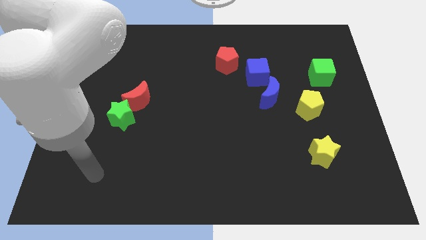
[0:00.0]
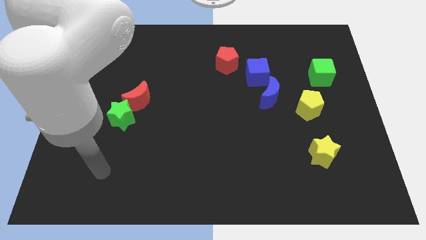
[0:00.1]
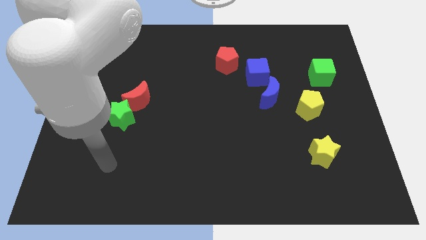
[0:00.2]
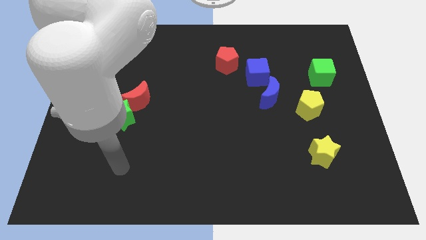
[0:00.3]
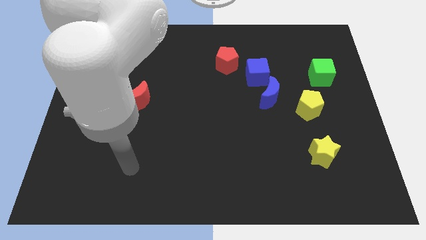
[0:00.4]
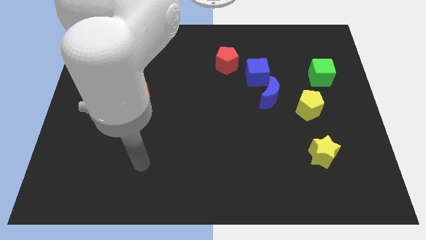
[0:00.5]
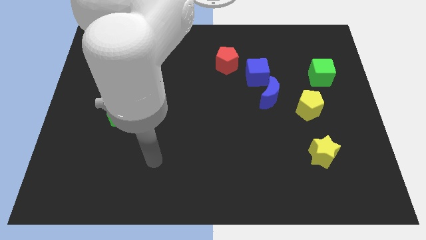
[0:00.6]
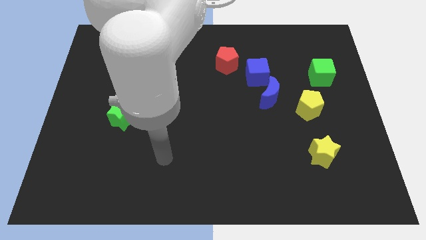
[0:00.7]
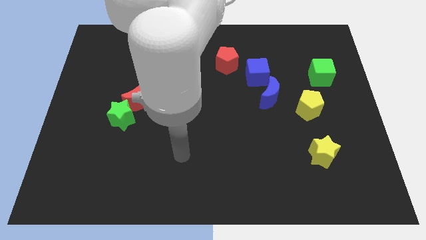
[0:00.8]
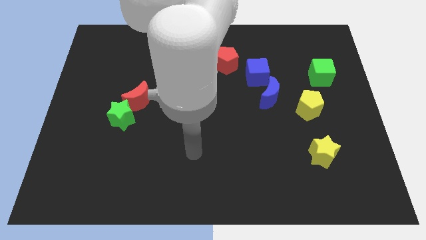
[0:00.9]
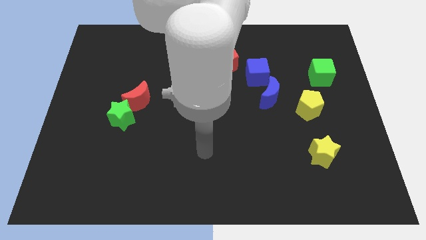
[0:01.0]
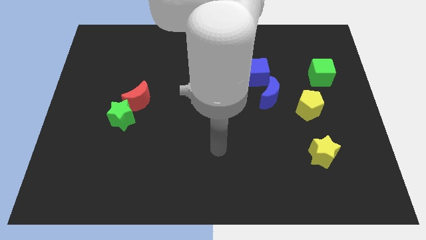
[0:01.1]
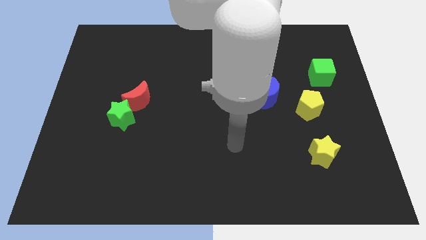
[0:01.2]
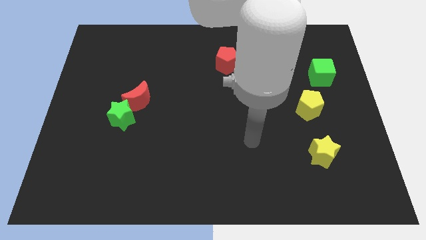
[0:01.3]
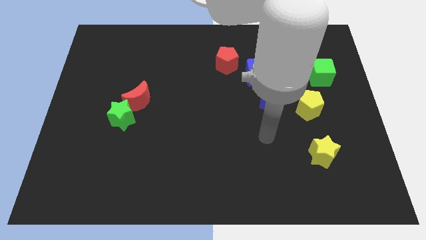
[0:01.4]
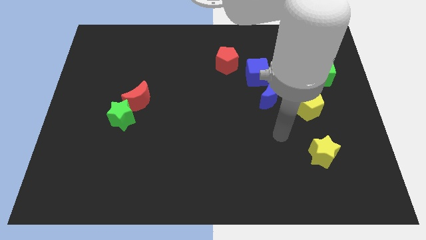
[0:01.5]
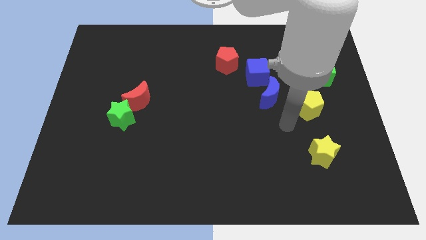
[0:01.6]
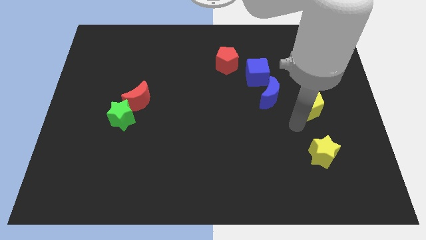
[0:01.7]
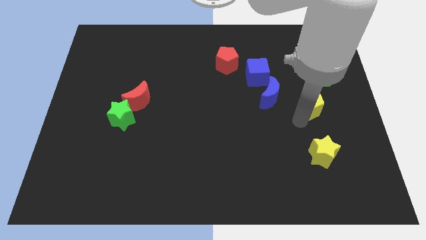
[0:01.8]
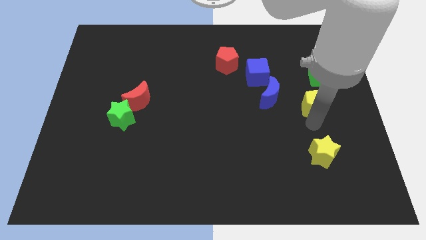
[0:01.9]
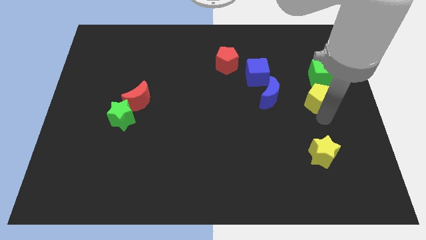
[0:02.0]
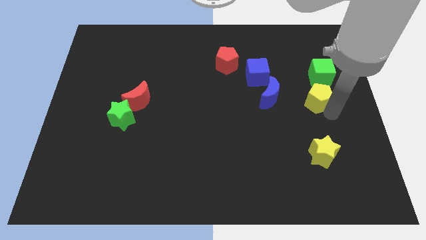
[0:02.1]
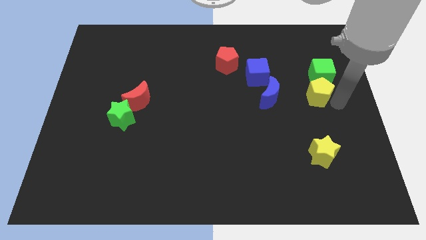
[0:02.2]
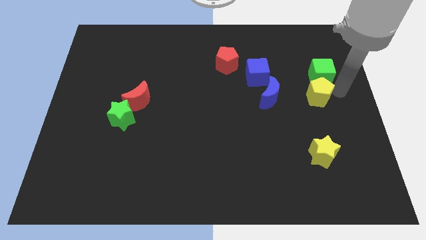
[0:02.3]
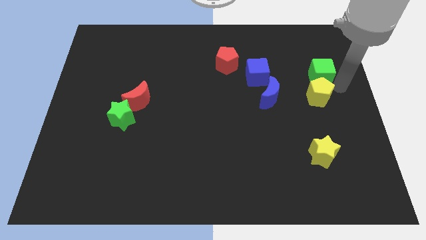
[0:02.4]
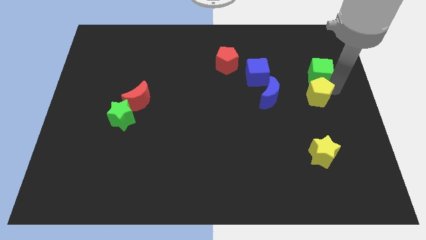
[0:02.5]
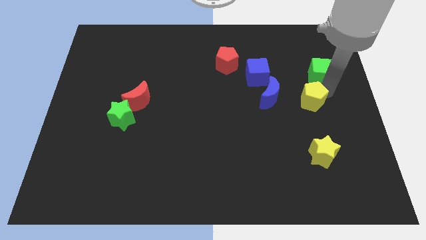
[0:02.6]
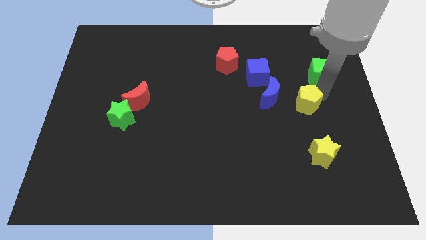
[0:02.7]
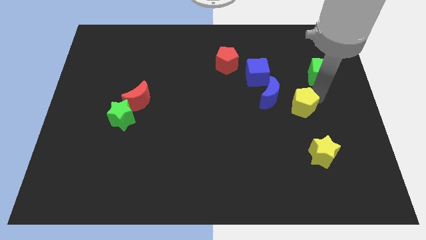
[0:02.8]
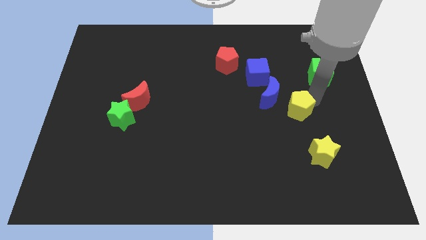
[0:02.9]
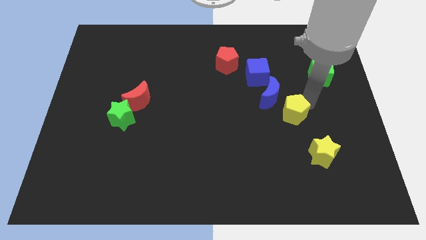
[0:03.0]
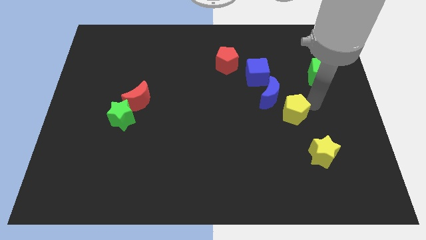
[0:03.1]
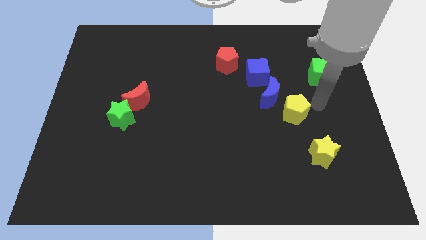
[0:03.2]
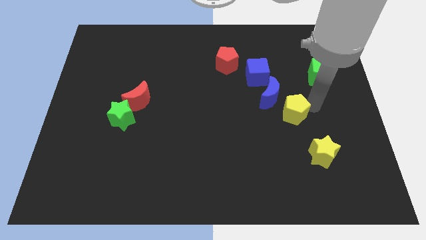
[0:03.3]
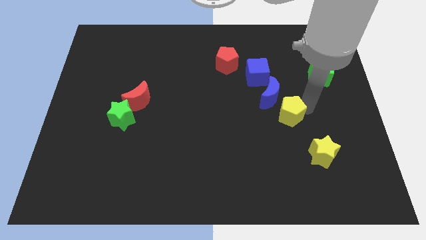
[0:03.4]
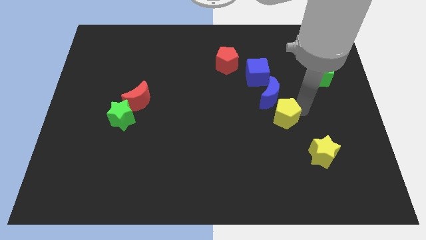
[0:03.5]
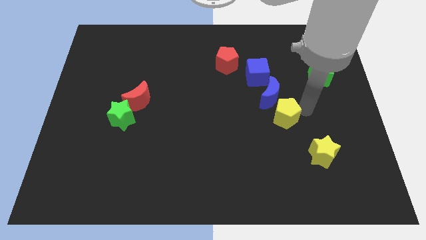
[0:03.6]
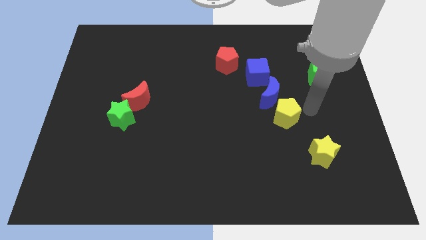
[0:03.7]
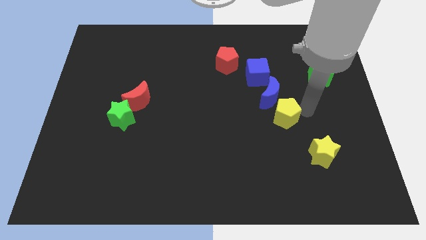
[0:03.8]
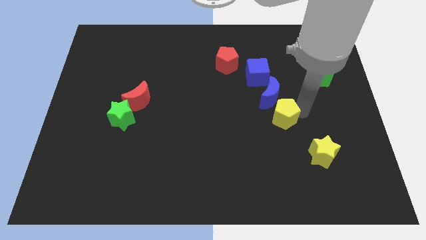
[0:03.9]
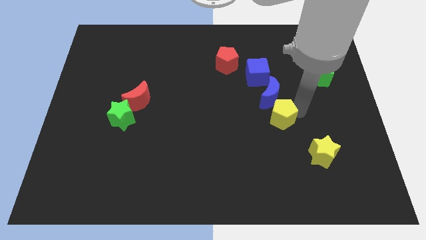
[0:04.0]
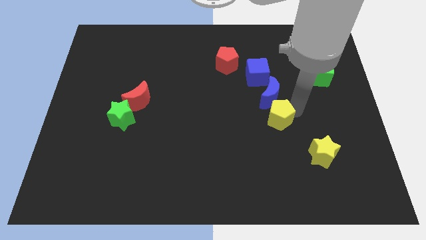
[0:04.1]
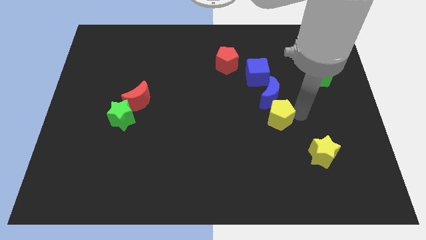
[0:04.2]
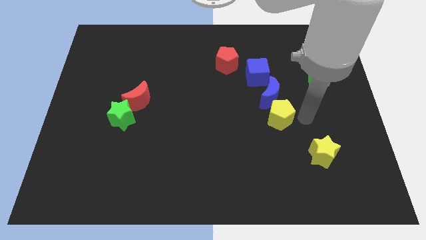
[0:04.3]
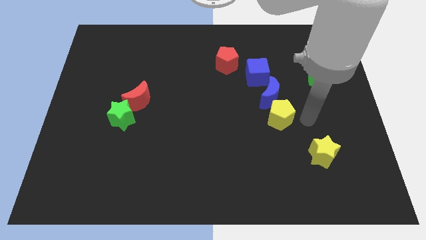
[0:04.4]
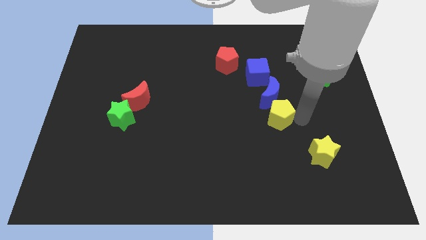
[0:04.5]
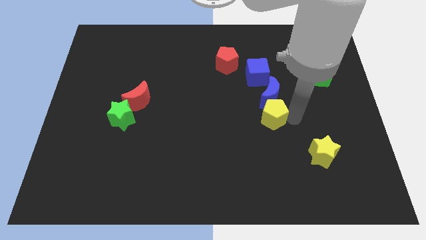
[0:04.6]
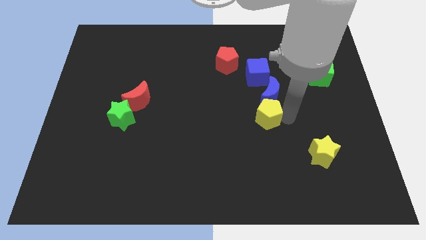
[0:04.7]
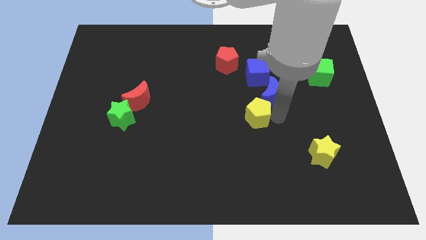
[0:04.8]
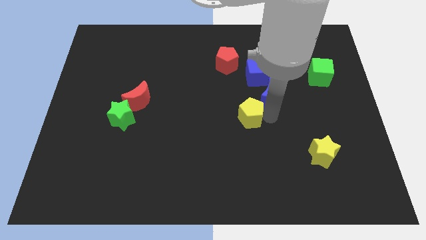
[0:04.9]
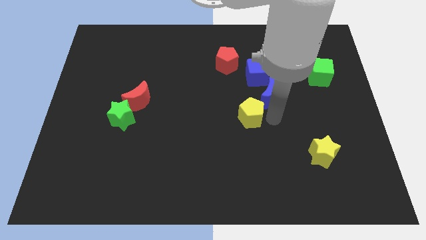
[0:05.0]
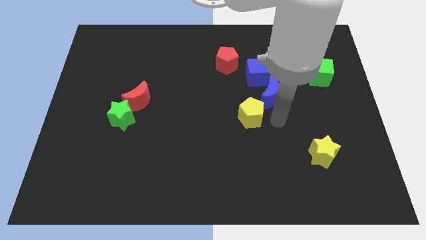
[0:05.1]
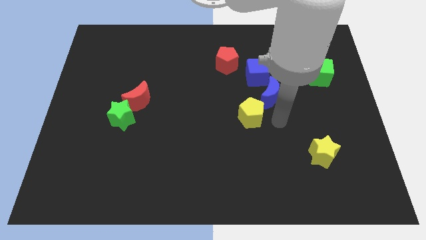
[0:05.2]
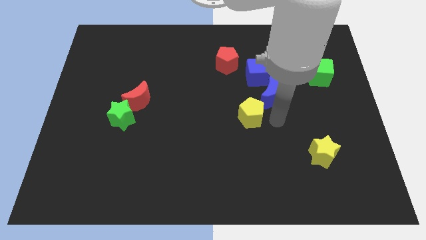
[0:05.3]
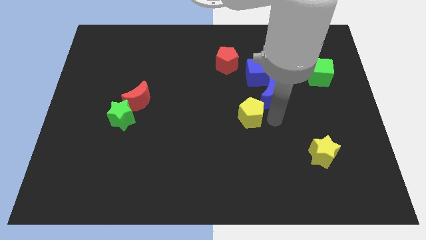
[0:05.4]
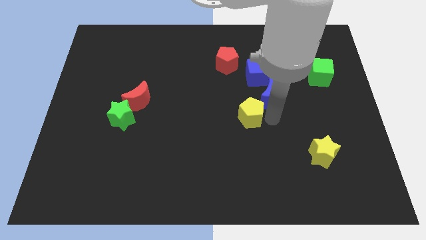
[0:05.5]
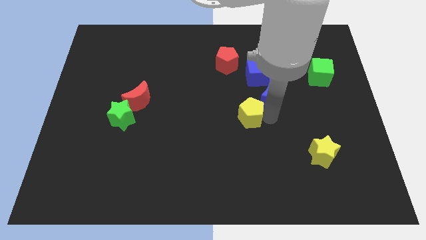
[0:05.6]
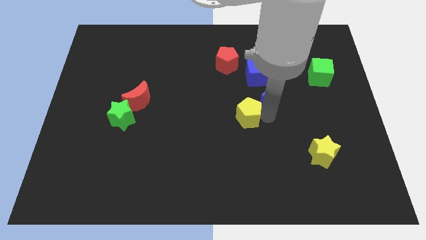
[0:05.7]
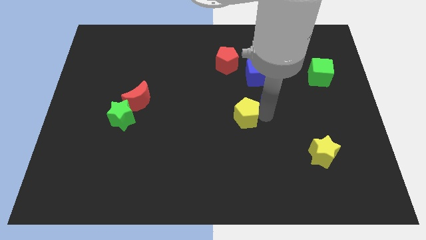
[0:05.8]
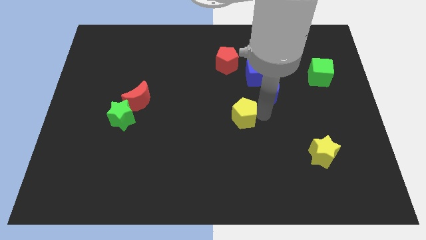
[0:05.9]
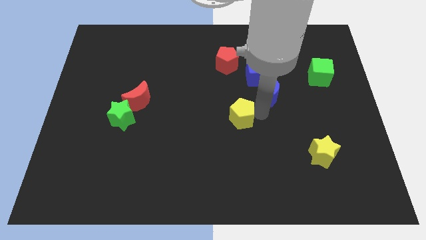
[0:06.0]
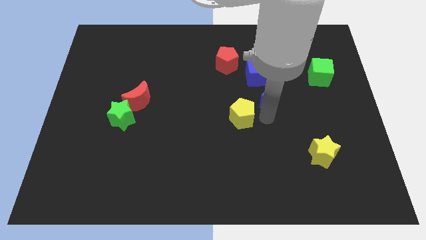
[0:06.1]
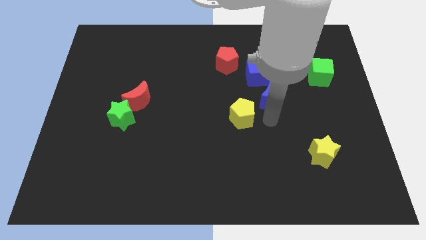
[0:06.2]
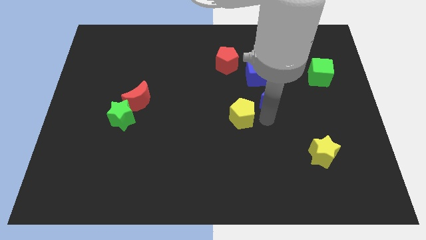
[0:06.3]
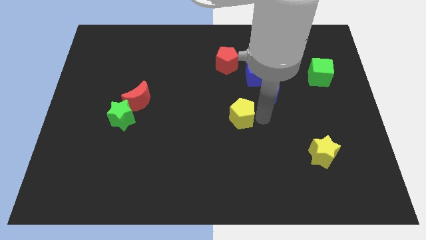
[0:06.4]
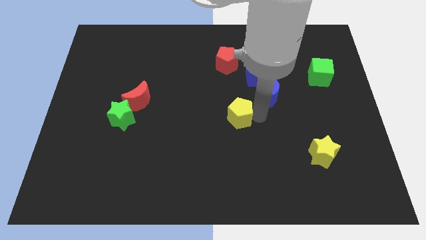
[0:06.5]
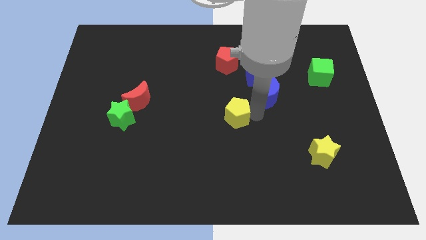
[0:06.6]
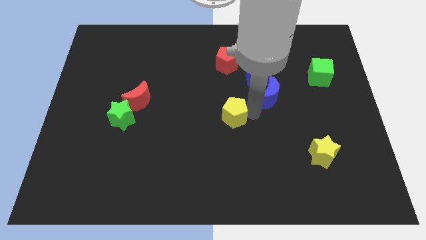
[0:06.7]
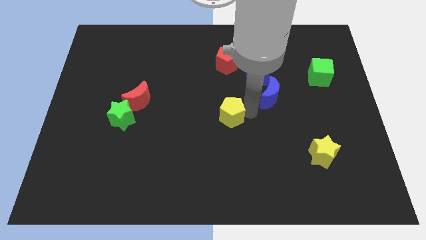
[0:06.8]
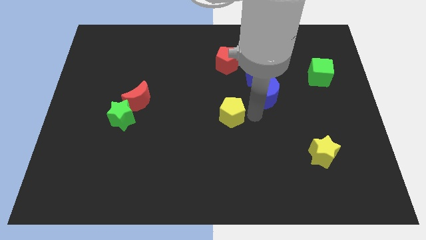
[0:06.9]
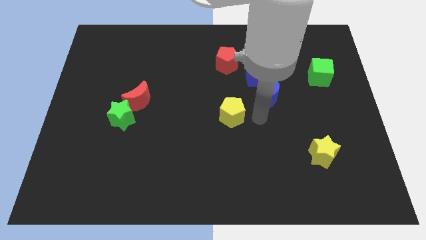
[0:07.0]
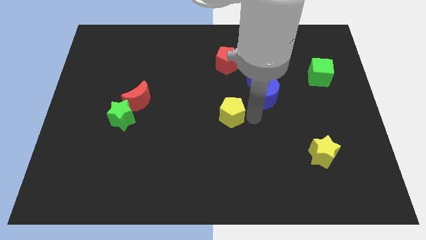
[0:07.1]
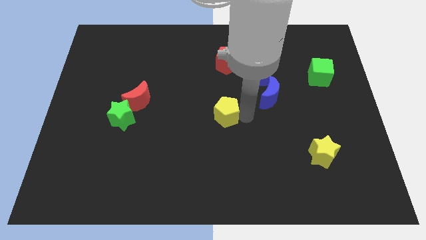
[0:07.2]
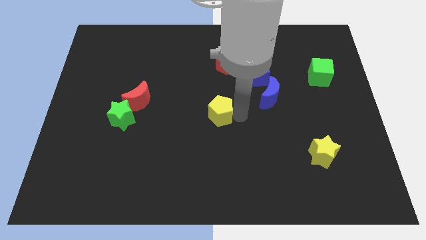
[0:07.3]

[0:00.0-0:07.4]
slide the yellow pentagon to the left

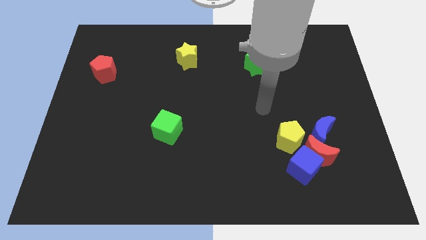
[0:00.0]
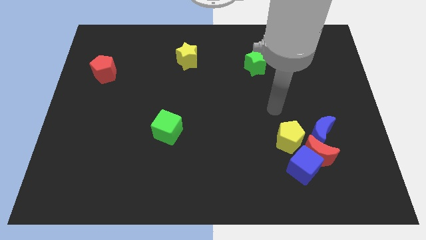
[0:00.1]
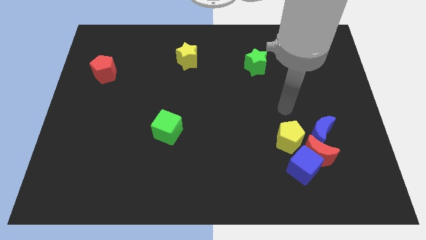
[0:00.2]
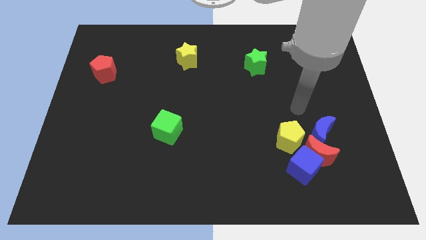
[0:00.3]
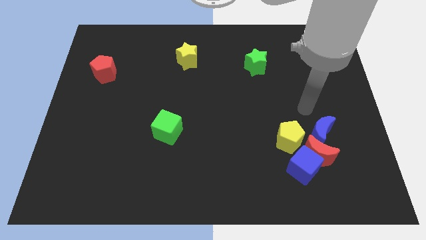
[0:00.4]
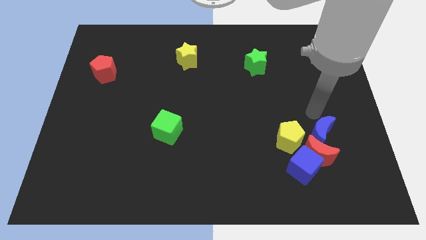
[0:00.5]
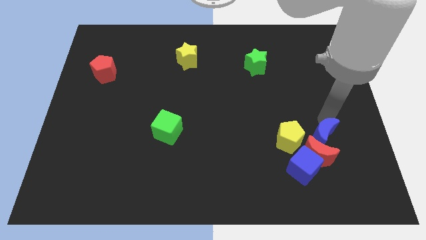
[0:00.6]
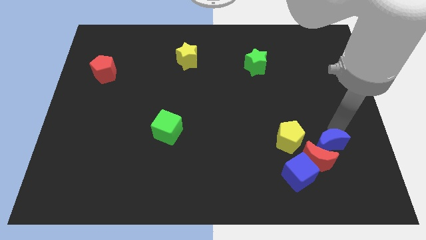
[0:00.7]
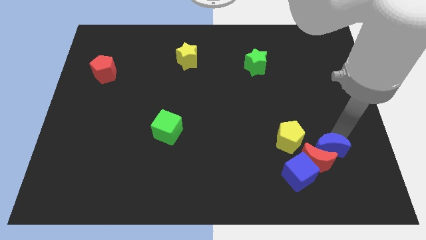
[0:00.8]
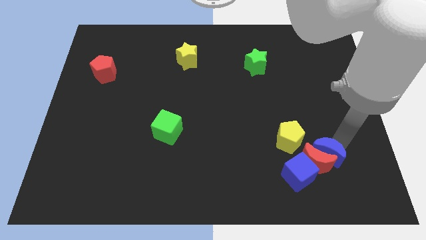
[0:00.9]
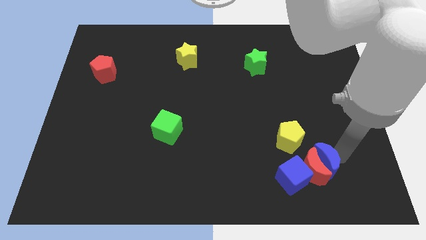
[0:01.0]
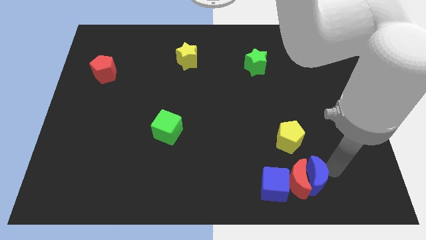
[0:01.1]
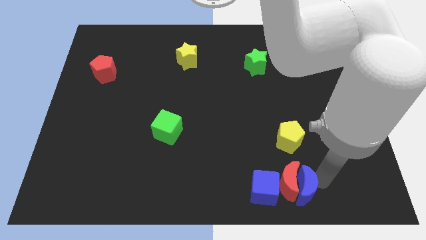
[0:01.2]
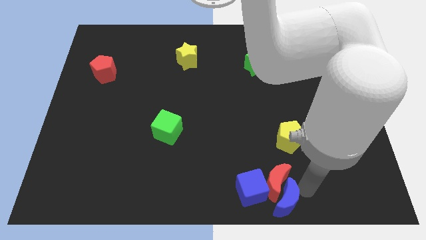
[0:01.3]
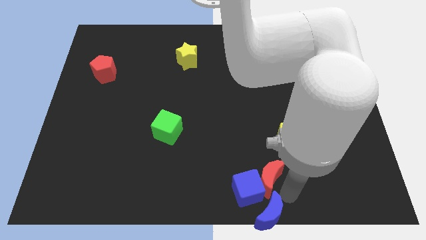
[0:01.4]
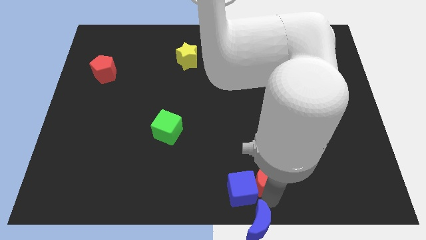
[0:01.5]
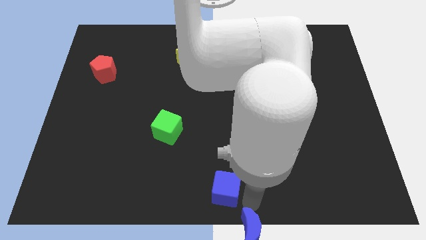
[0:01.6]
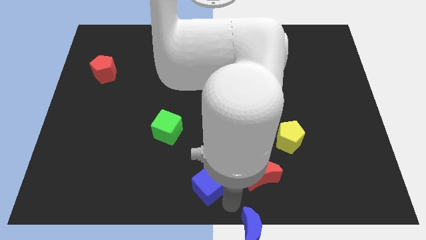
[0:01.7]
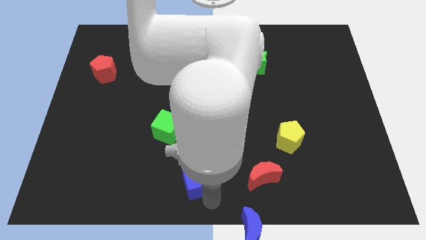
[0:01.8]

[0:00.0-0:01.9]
push the blue cube to the left
